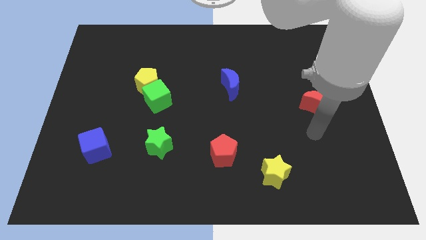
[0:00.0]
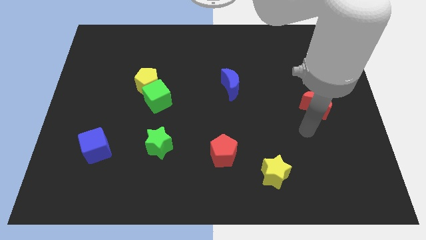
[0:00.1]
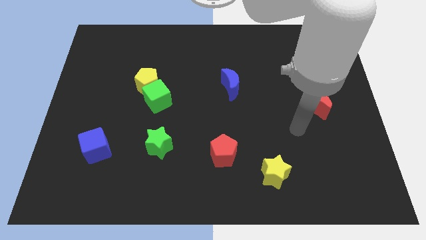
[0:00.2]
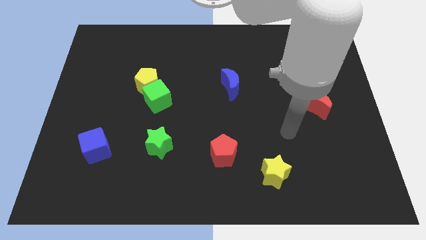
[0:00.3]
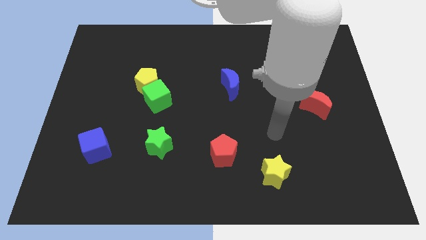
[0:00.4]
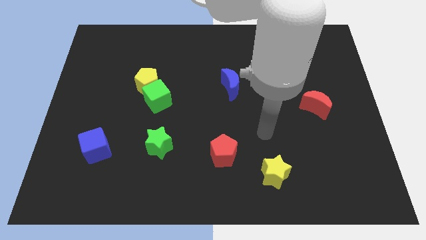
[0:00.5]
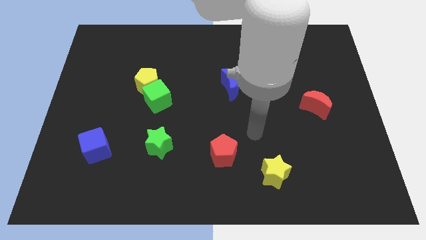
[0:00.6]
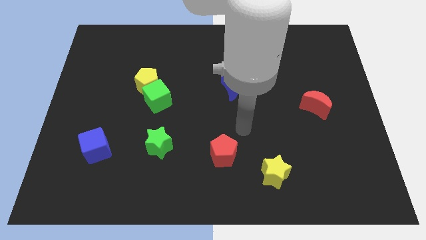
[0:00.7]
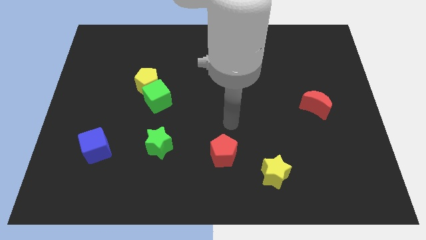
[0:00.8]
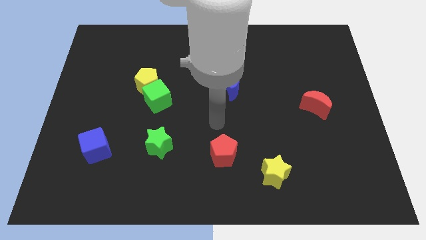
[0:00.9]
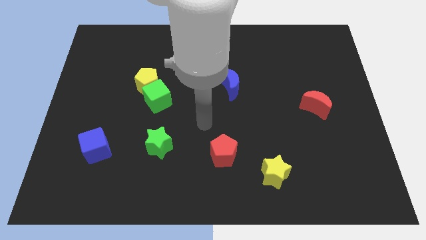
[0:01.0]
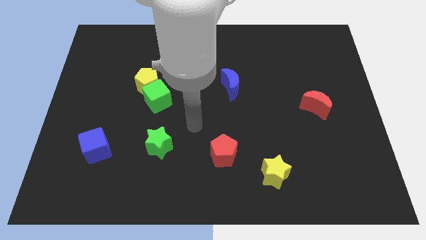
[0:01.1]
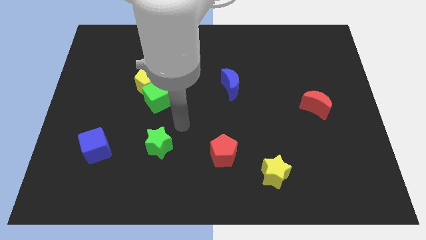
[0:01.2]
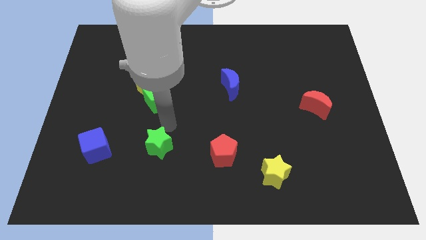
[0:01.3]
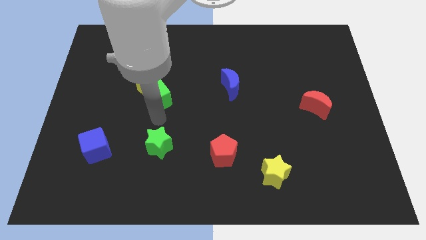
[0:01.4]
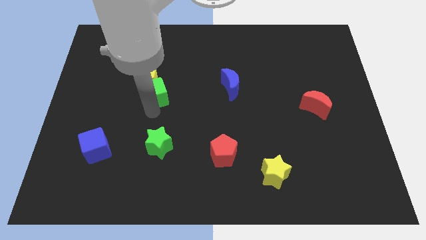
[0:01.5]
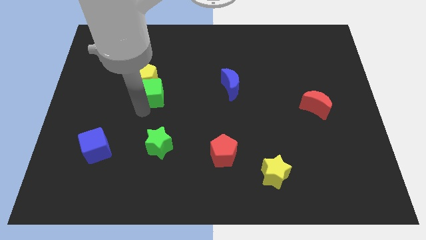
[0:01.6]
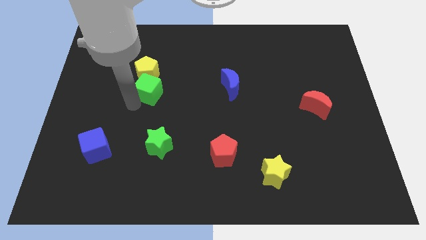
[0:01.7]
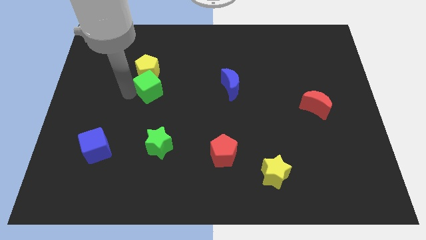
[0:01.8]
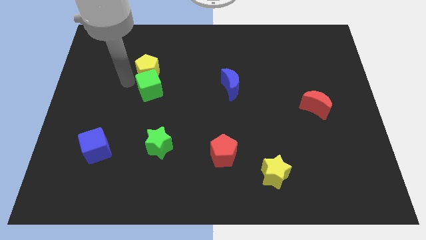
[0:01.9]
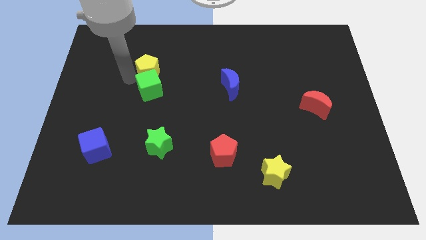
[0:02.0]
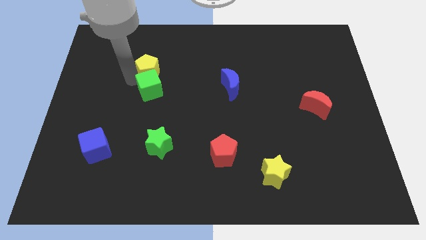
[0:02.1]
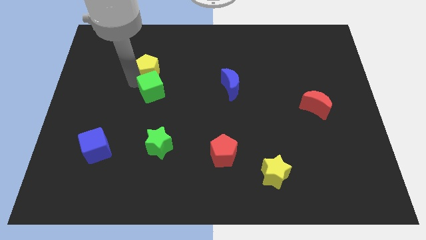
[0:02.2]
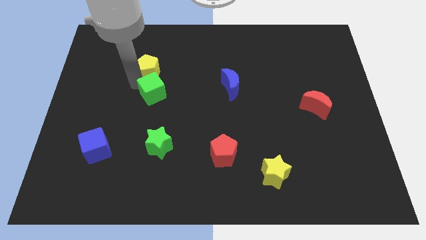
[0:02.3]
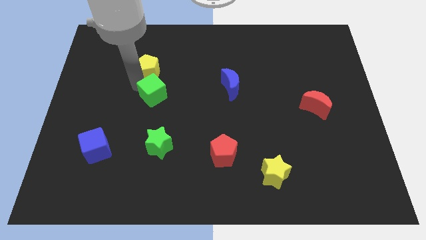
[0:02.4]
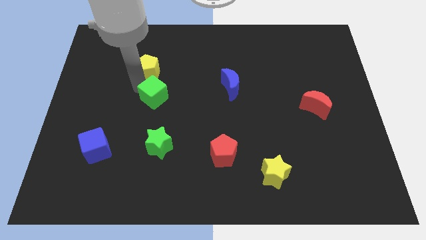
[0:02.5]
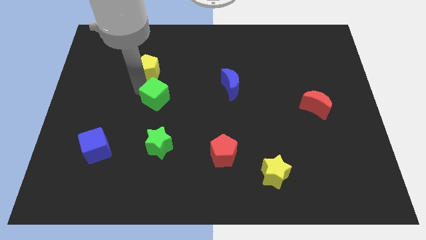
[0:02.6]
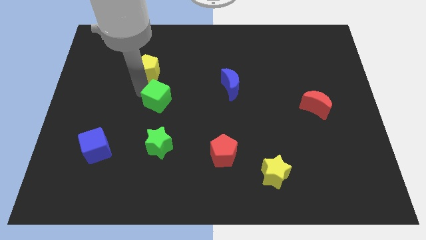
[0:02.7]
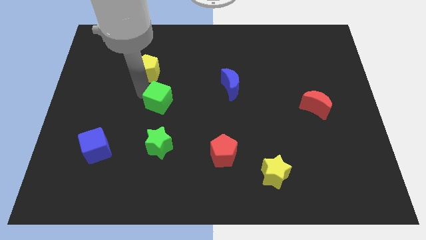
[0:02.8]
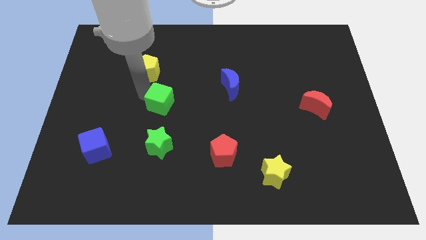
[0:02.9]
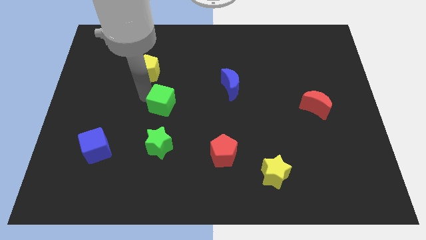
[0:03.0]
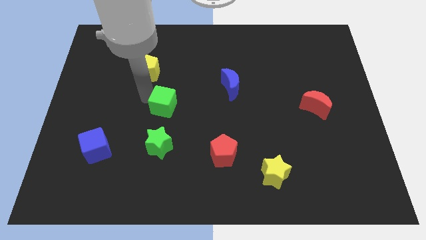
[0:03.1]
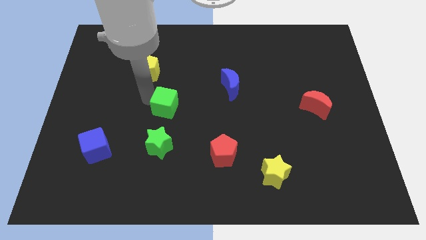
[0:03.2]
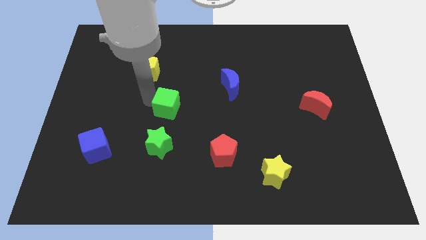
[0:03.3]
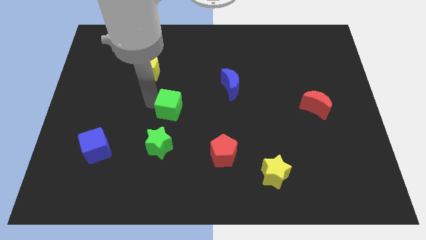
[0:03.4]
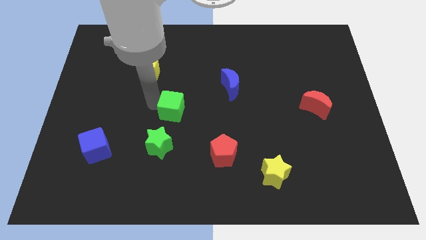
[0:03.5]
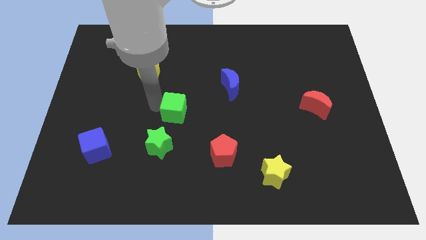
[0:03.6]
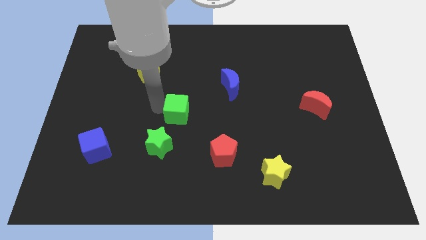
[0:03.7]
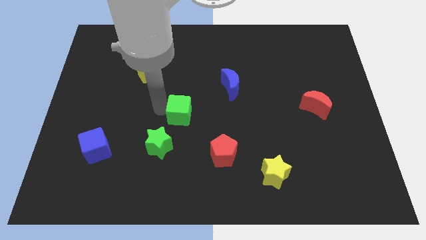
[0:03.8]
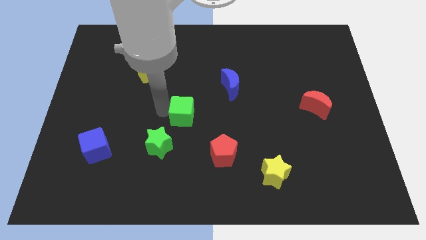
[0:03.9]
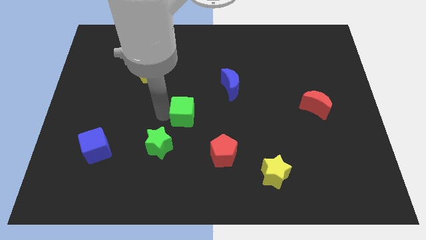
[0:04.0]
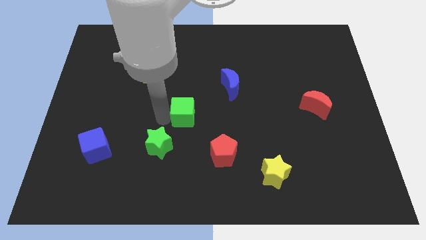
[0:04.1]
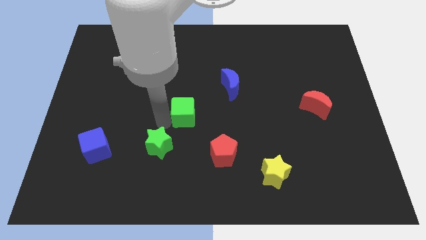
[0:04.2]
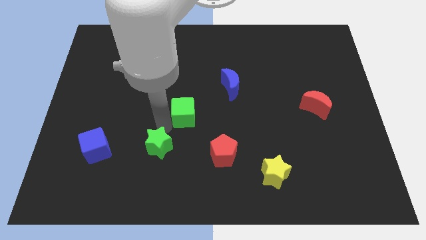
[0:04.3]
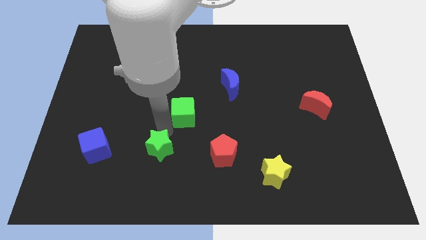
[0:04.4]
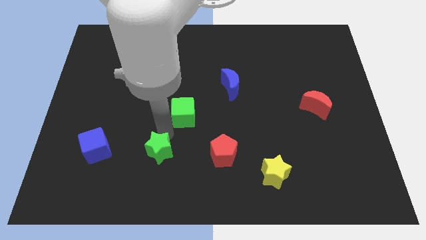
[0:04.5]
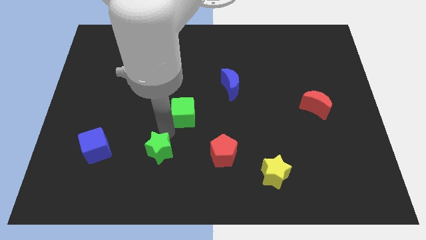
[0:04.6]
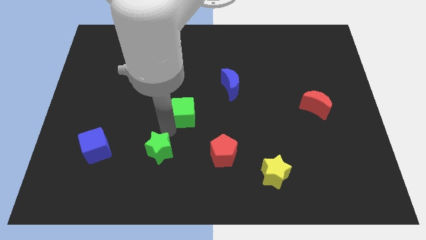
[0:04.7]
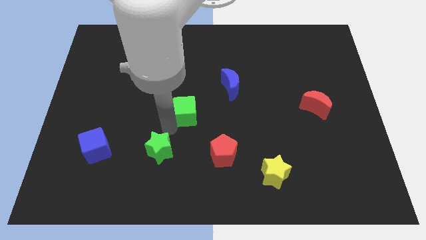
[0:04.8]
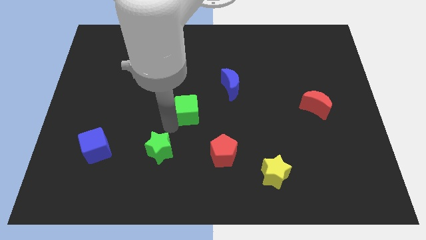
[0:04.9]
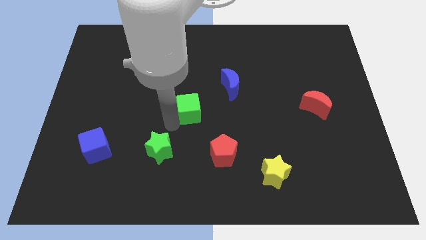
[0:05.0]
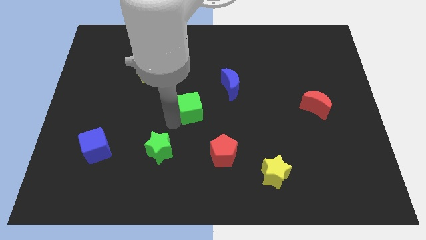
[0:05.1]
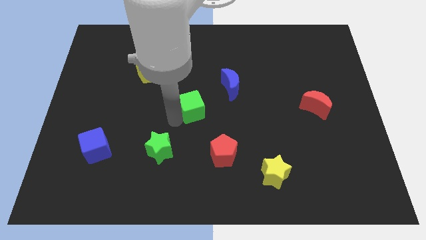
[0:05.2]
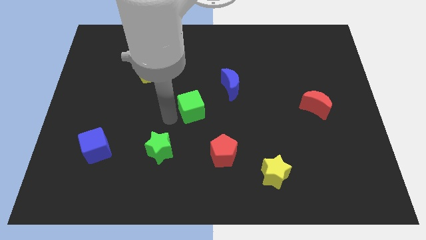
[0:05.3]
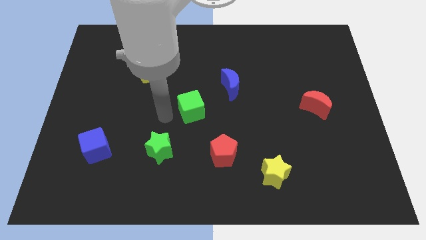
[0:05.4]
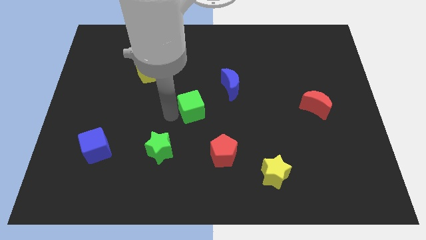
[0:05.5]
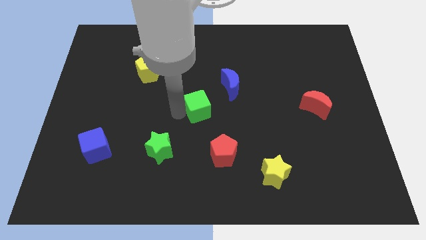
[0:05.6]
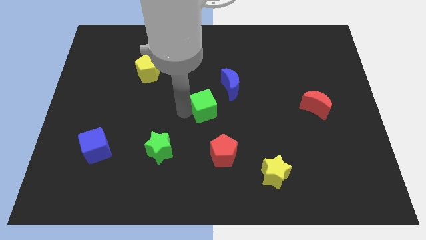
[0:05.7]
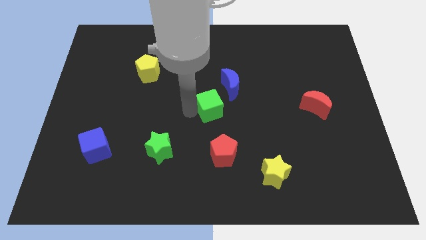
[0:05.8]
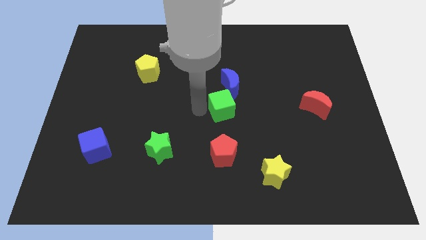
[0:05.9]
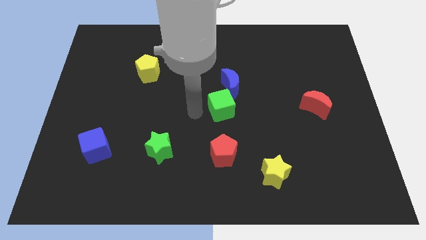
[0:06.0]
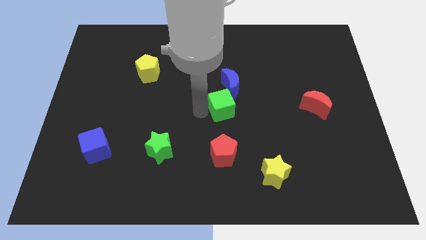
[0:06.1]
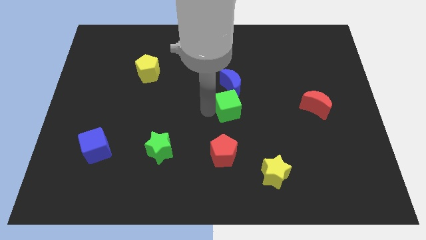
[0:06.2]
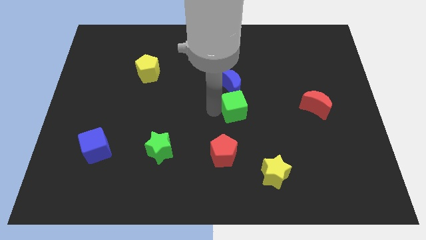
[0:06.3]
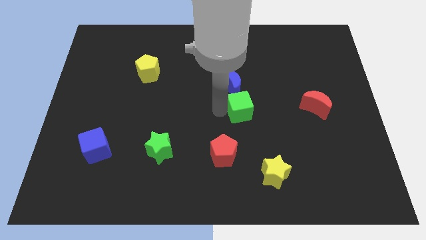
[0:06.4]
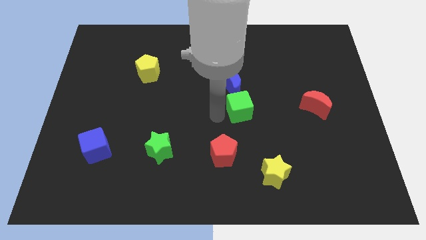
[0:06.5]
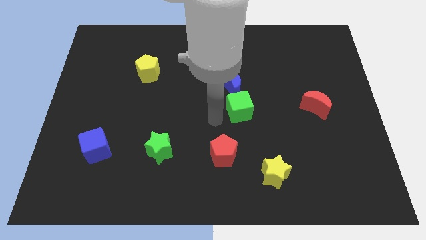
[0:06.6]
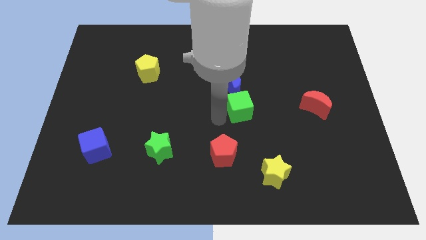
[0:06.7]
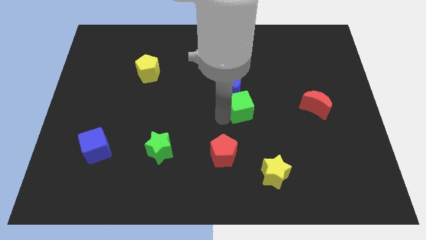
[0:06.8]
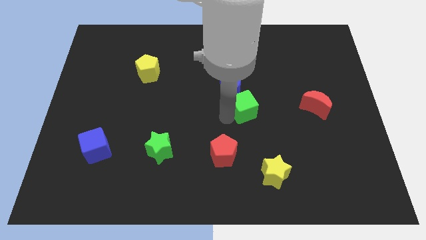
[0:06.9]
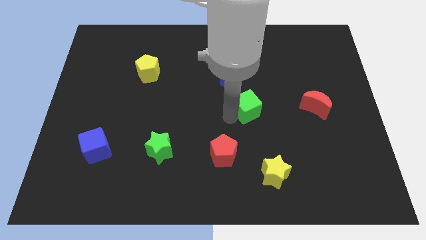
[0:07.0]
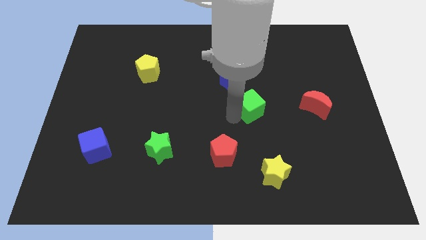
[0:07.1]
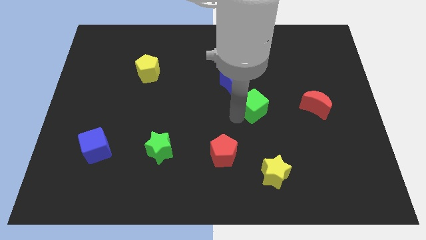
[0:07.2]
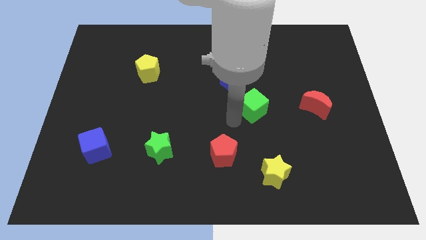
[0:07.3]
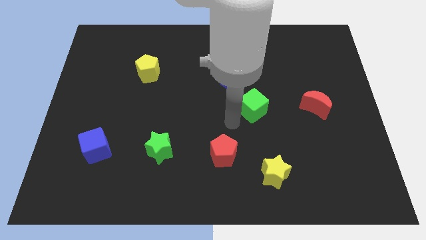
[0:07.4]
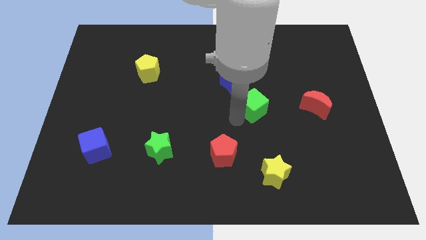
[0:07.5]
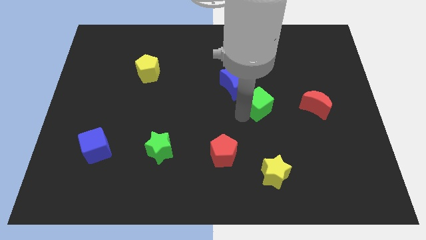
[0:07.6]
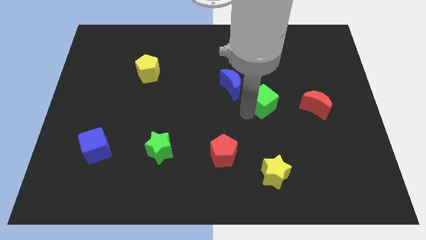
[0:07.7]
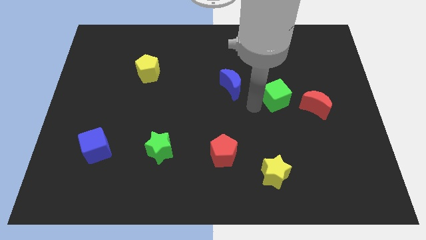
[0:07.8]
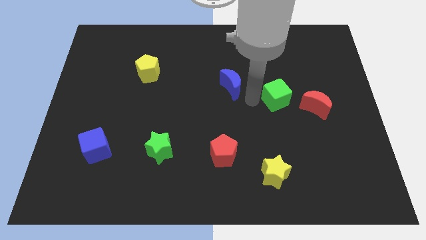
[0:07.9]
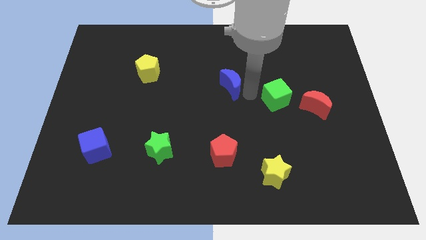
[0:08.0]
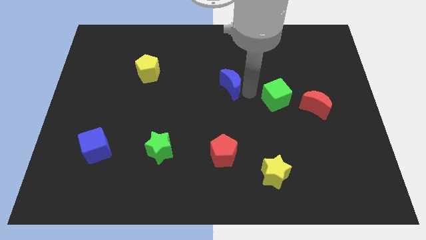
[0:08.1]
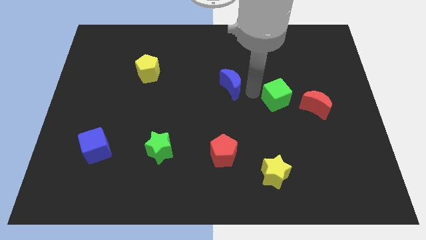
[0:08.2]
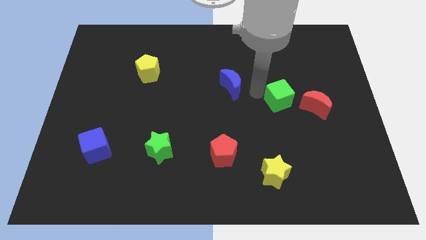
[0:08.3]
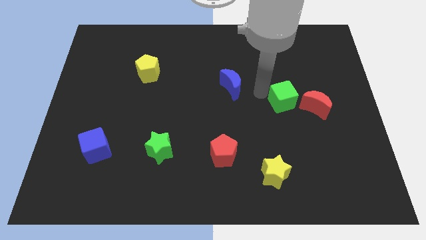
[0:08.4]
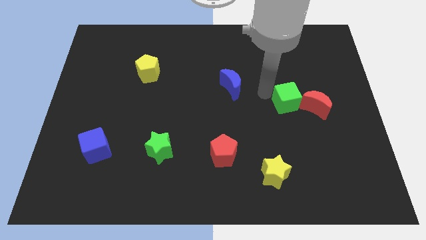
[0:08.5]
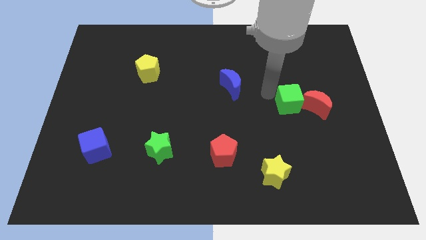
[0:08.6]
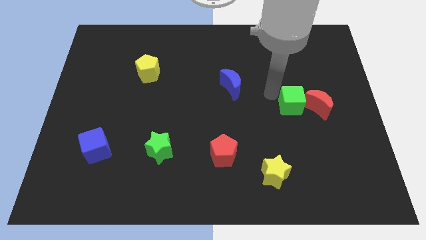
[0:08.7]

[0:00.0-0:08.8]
slide the green cube next to the red moon
